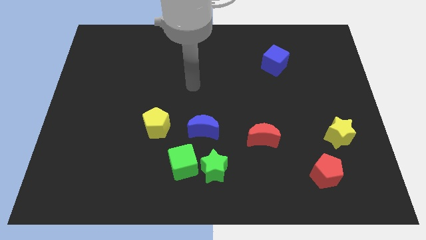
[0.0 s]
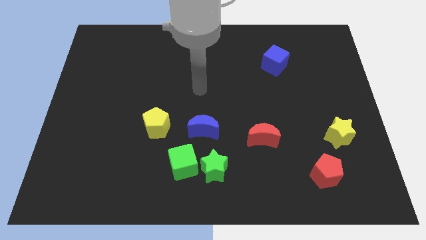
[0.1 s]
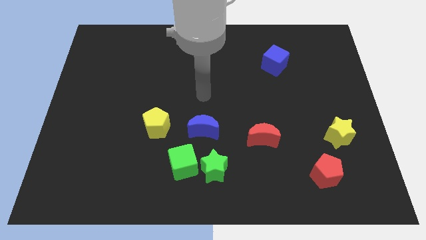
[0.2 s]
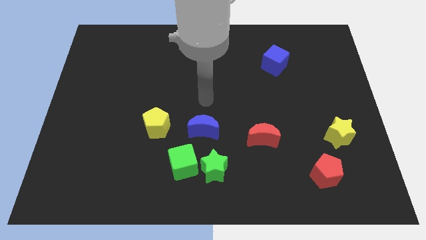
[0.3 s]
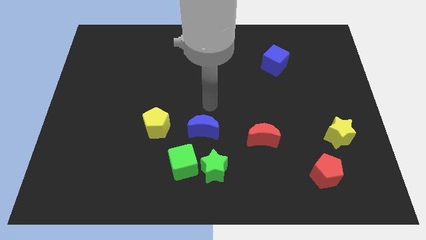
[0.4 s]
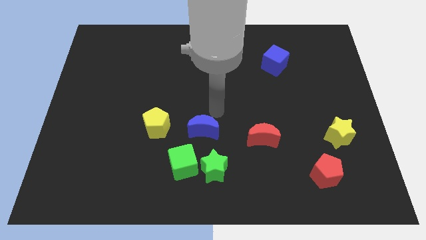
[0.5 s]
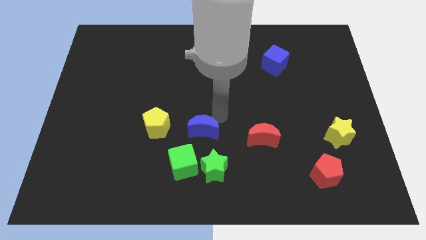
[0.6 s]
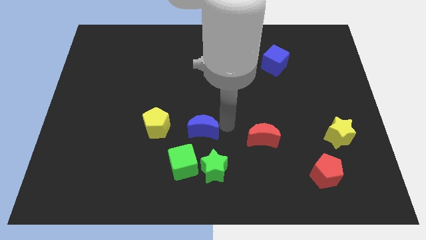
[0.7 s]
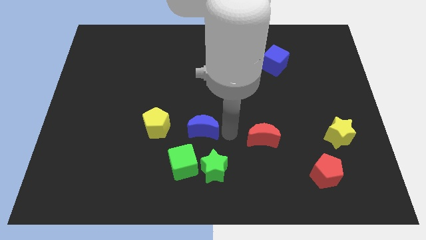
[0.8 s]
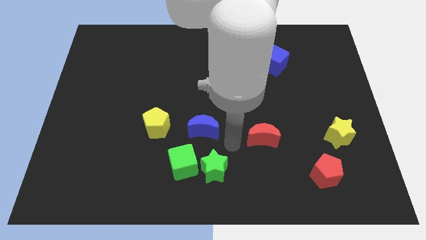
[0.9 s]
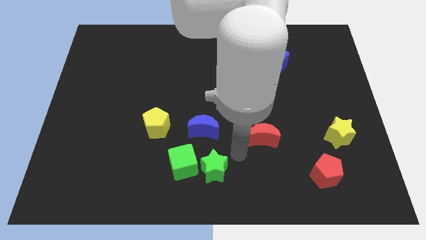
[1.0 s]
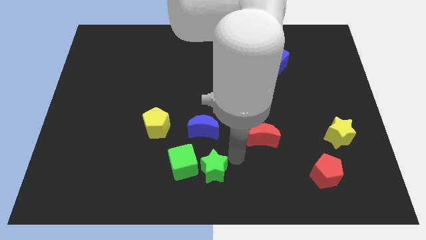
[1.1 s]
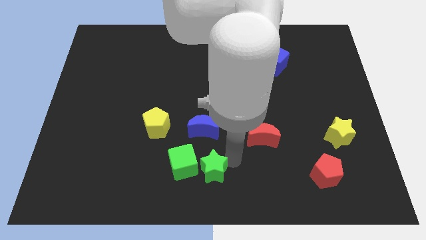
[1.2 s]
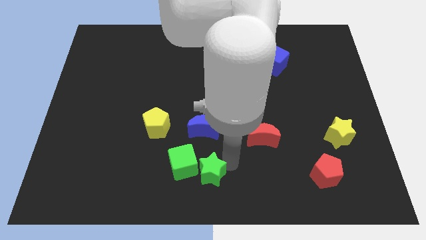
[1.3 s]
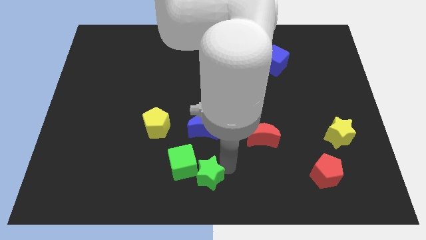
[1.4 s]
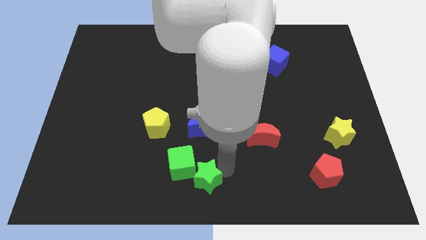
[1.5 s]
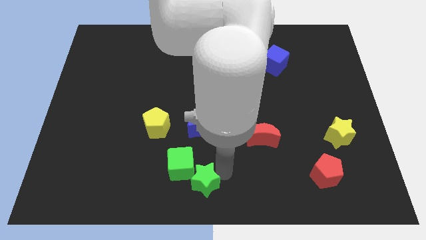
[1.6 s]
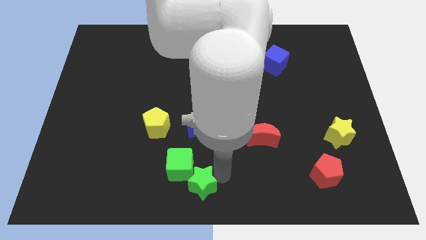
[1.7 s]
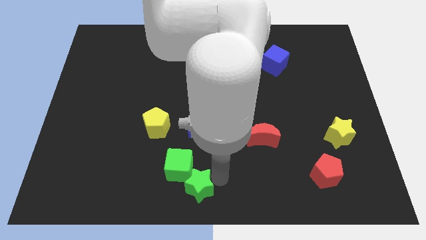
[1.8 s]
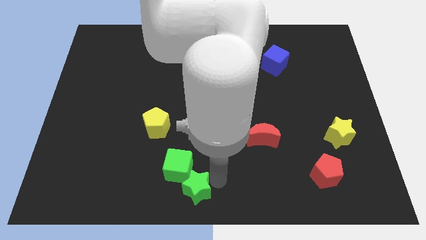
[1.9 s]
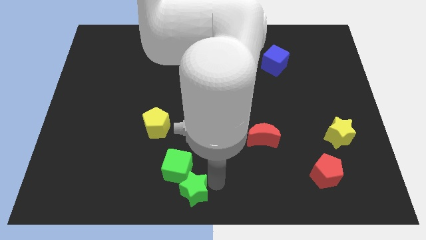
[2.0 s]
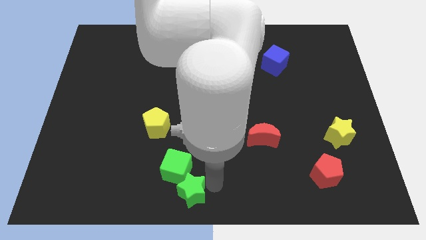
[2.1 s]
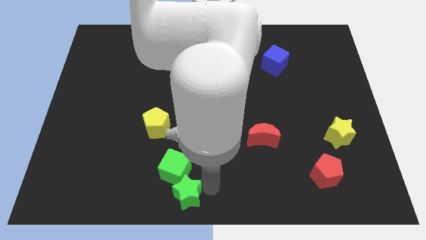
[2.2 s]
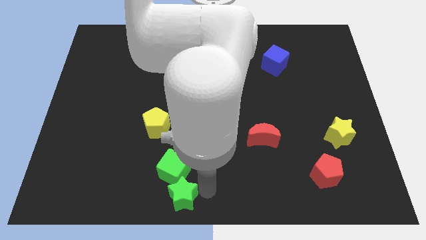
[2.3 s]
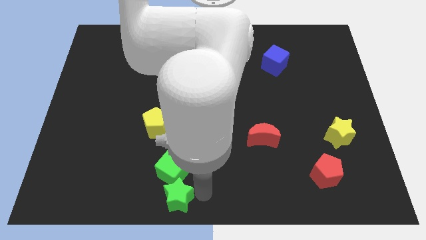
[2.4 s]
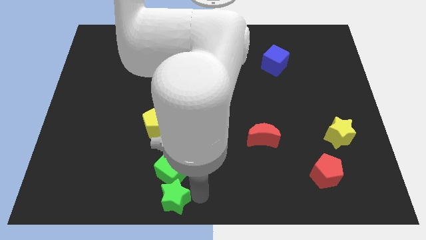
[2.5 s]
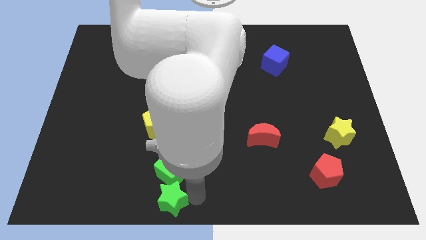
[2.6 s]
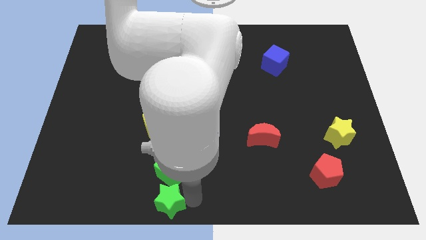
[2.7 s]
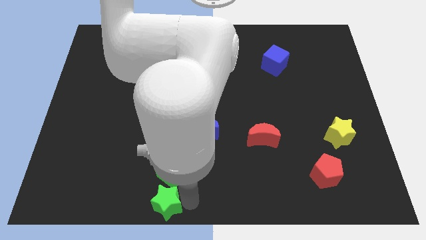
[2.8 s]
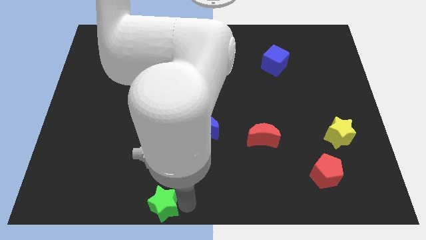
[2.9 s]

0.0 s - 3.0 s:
slide the green star somewhat left

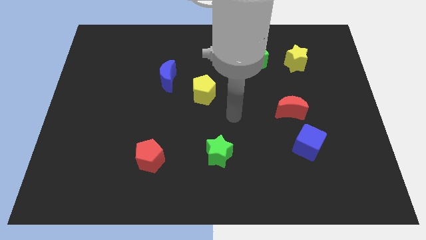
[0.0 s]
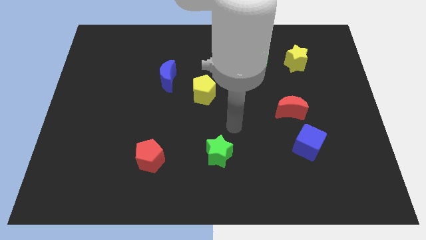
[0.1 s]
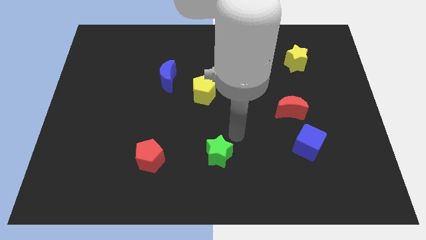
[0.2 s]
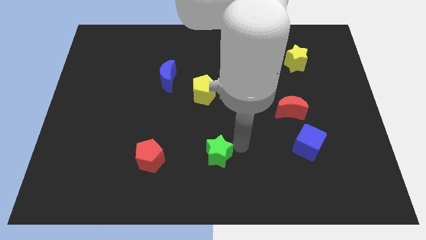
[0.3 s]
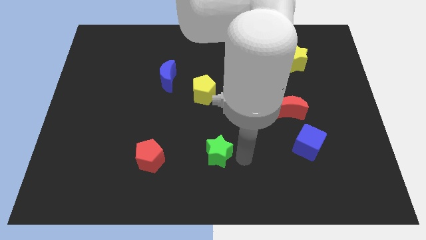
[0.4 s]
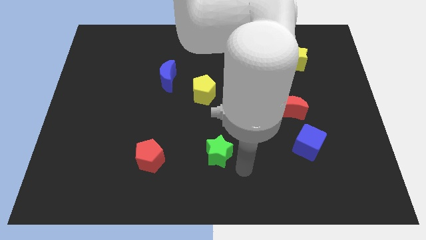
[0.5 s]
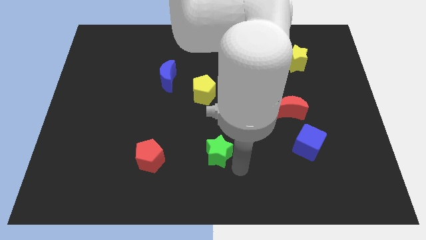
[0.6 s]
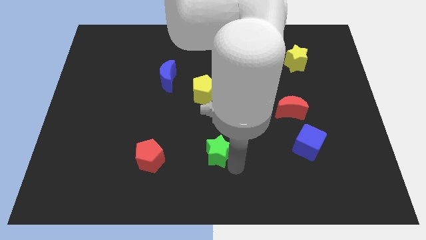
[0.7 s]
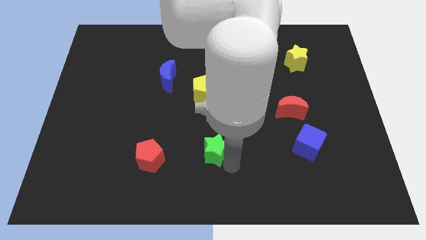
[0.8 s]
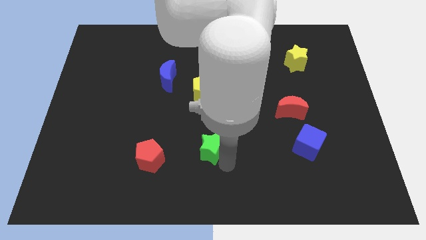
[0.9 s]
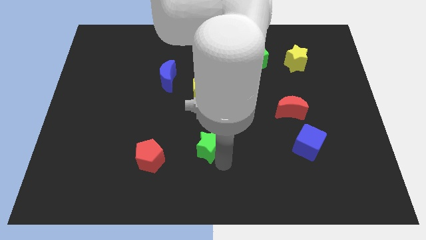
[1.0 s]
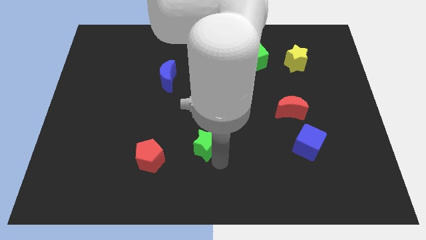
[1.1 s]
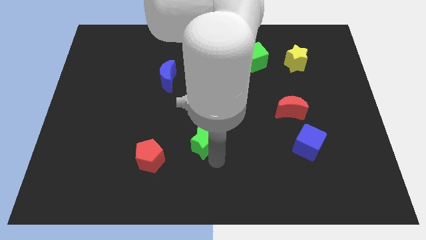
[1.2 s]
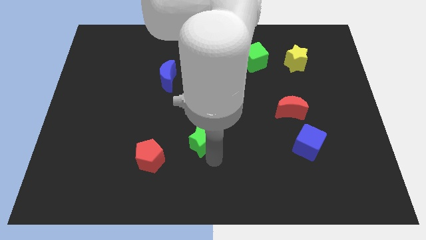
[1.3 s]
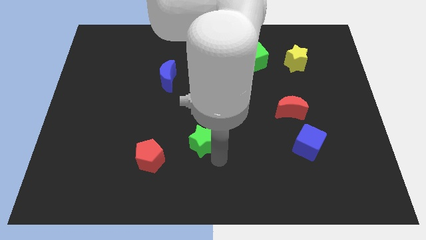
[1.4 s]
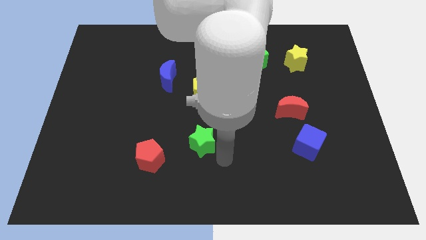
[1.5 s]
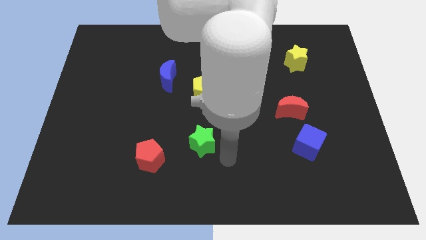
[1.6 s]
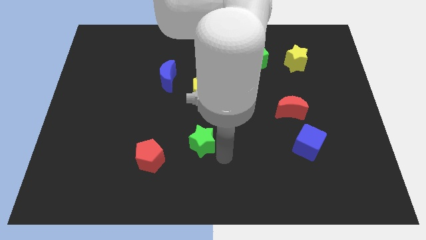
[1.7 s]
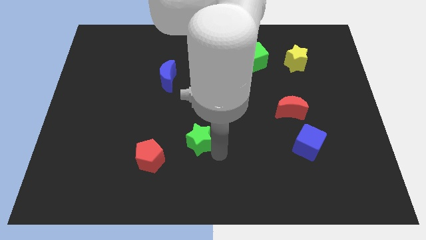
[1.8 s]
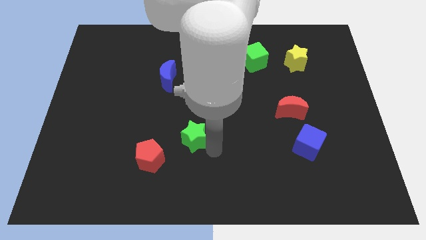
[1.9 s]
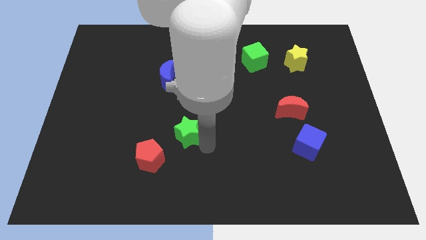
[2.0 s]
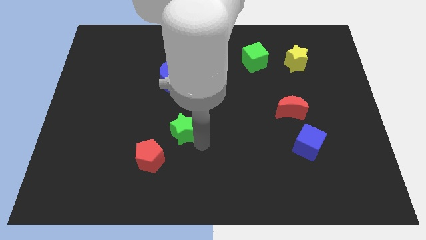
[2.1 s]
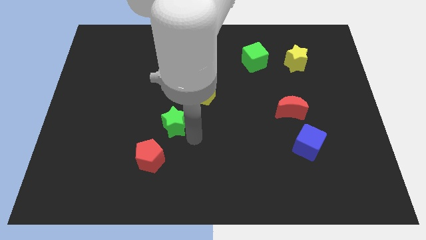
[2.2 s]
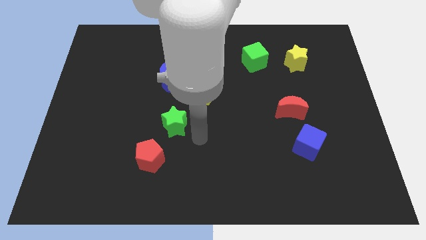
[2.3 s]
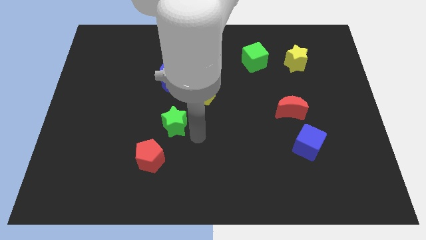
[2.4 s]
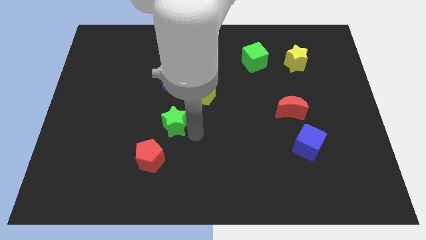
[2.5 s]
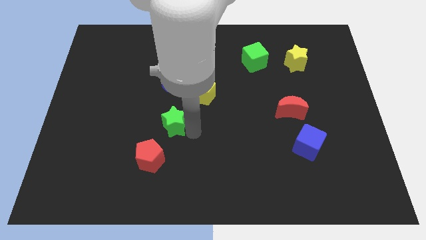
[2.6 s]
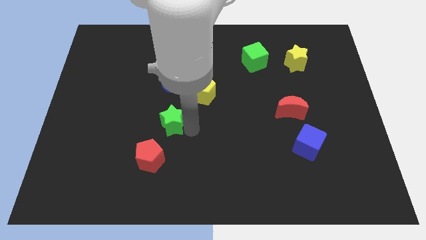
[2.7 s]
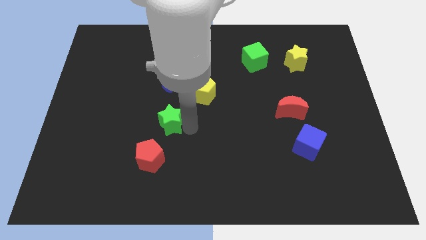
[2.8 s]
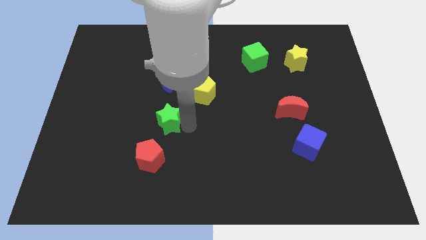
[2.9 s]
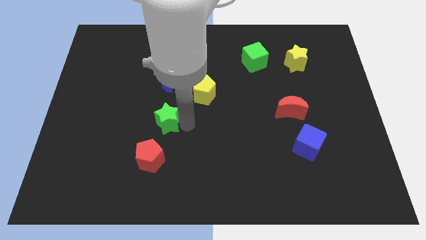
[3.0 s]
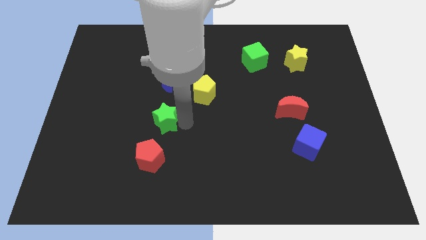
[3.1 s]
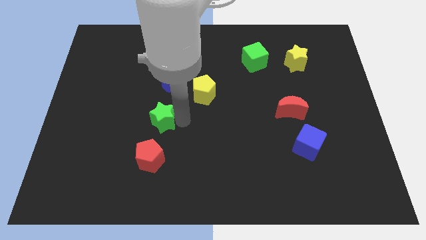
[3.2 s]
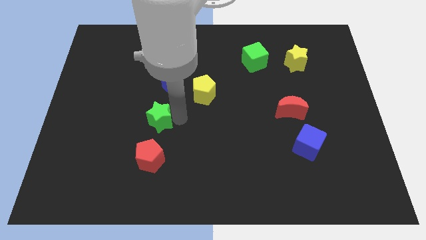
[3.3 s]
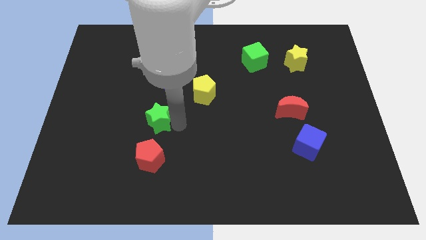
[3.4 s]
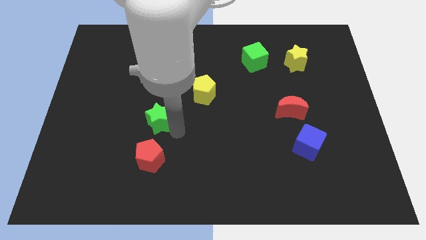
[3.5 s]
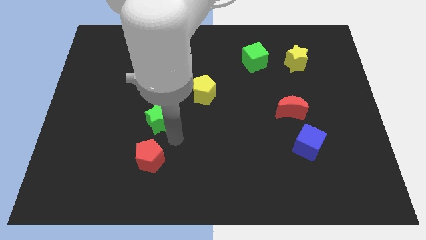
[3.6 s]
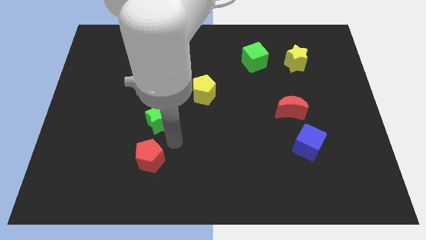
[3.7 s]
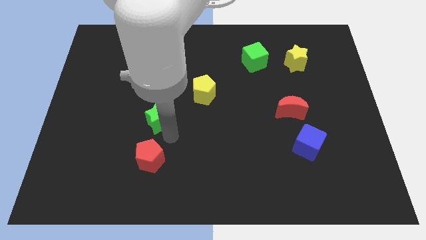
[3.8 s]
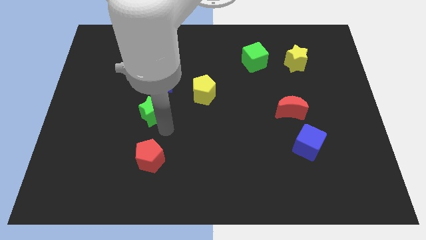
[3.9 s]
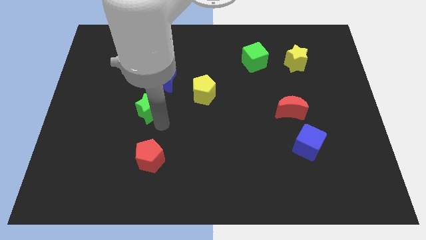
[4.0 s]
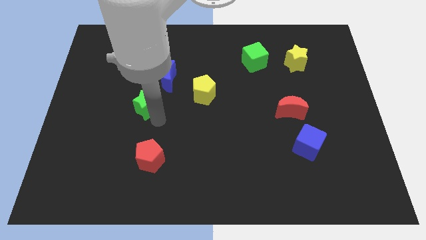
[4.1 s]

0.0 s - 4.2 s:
slide the green star diagonally upwards and to the left

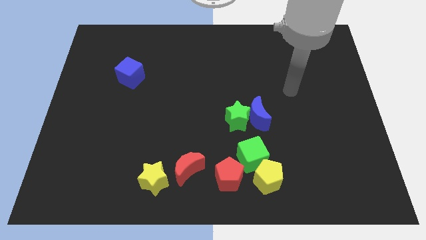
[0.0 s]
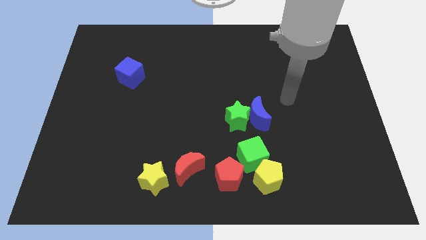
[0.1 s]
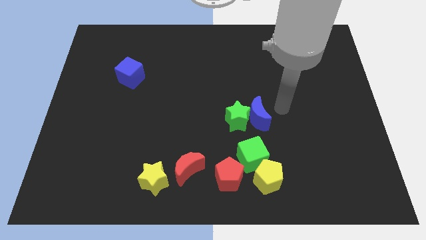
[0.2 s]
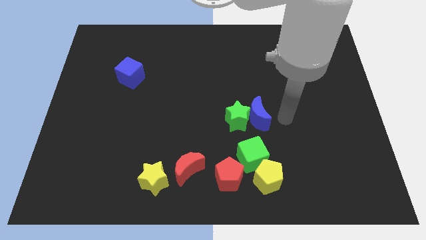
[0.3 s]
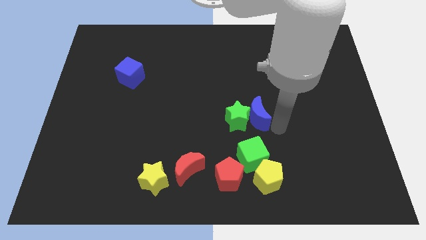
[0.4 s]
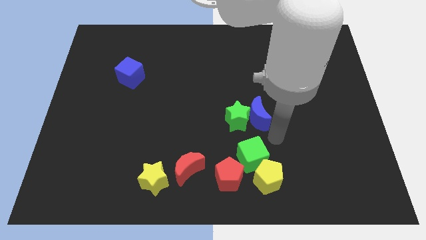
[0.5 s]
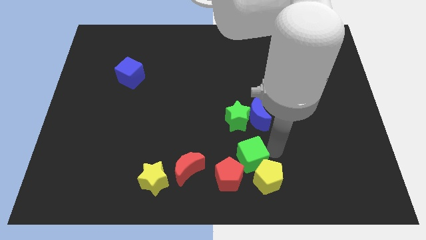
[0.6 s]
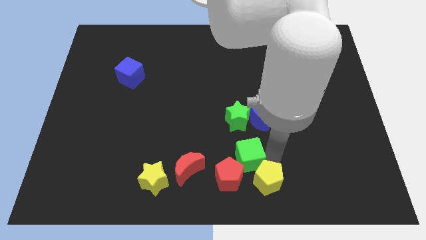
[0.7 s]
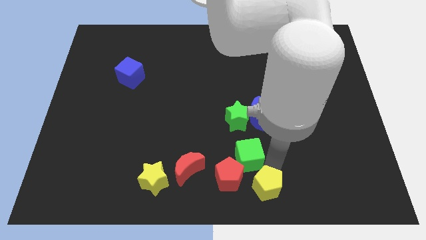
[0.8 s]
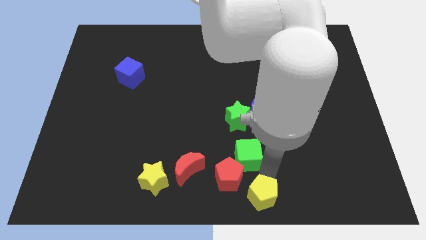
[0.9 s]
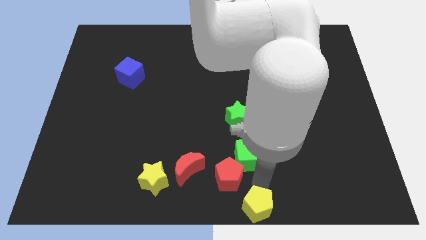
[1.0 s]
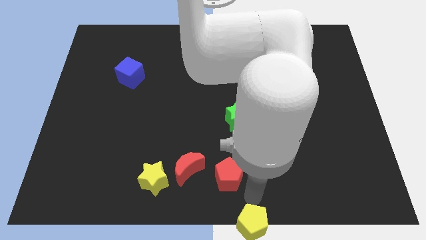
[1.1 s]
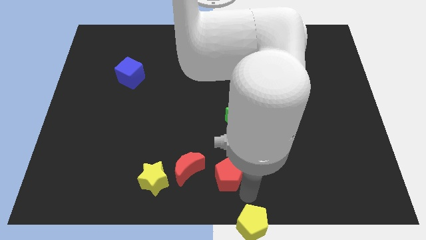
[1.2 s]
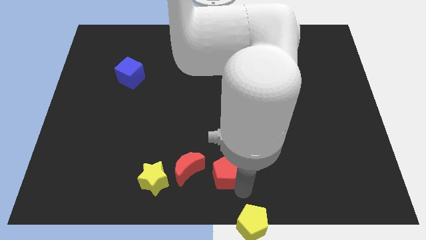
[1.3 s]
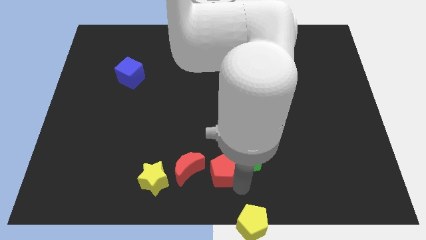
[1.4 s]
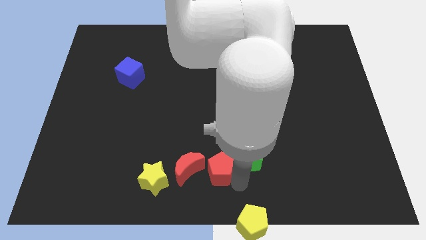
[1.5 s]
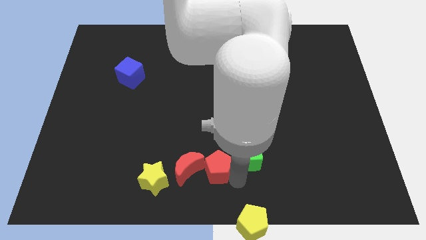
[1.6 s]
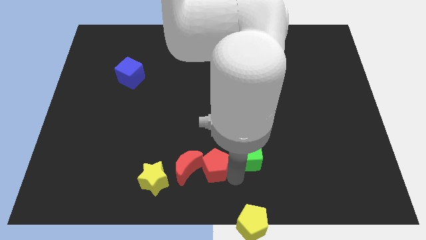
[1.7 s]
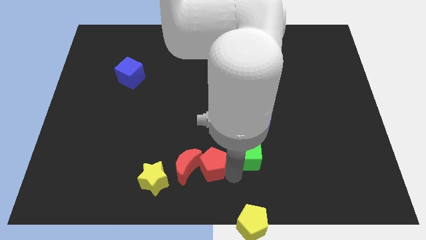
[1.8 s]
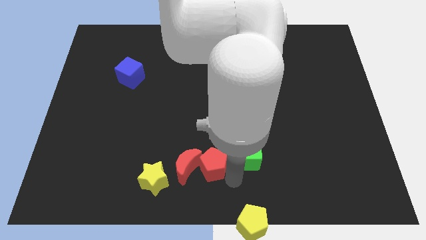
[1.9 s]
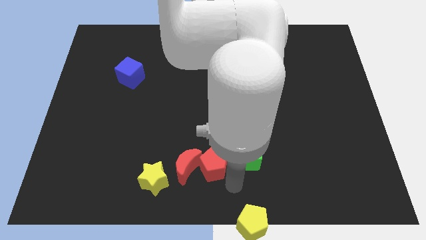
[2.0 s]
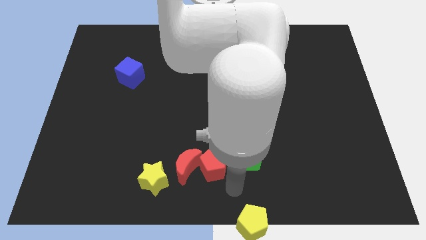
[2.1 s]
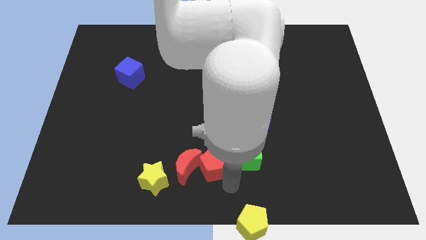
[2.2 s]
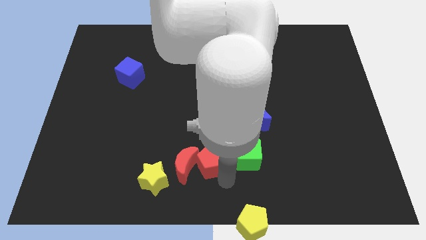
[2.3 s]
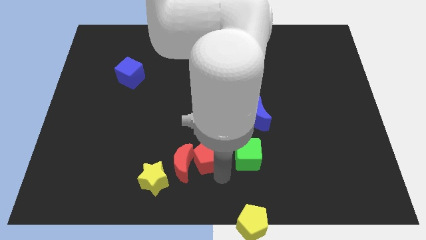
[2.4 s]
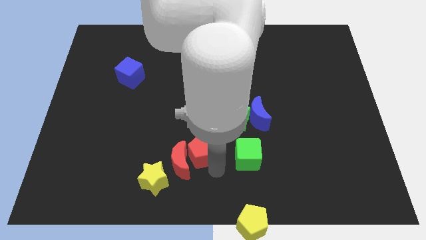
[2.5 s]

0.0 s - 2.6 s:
move the red pentagon upwards and left slightly
